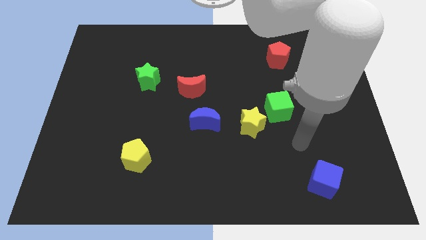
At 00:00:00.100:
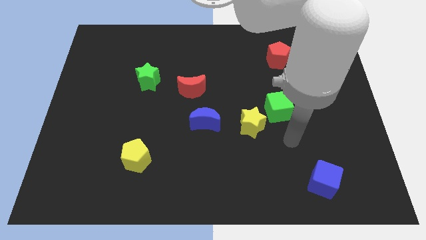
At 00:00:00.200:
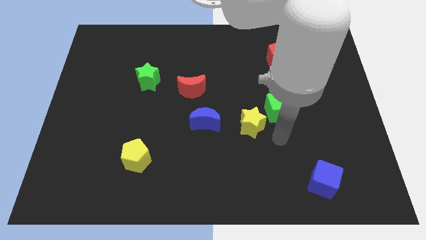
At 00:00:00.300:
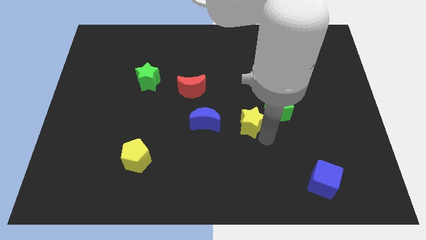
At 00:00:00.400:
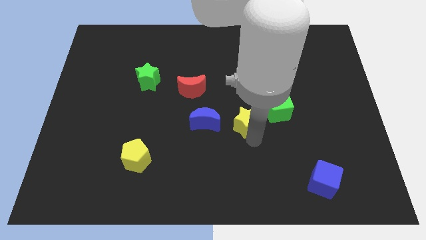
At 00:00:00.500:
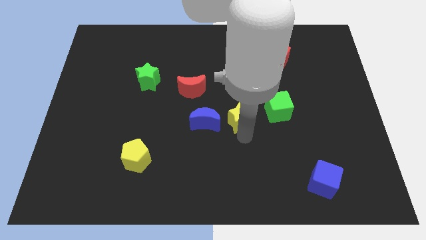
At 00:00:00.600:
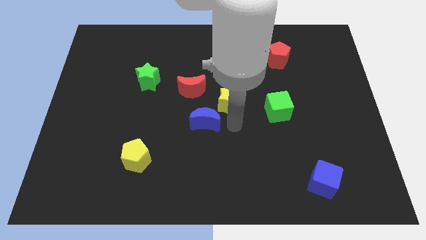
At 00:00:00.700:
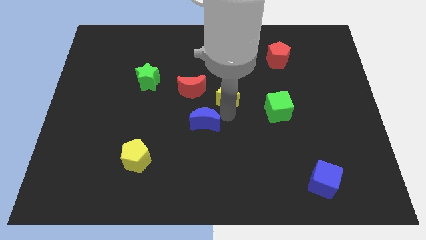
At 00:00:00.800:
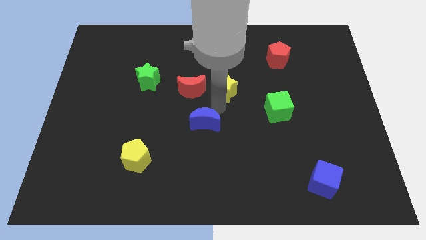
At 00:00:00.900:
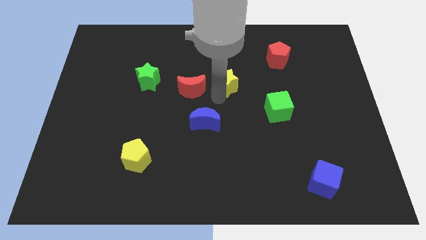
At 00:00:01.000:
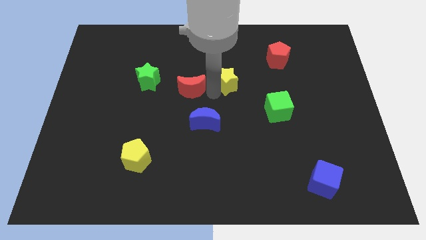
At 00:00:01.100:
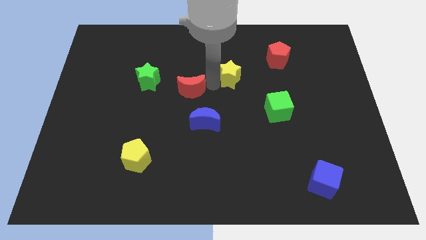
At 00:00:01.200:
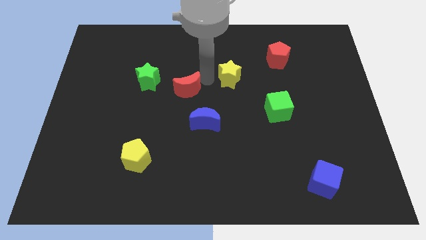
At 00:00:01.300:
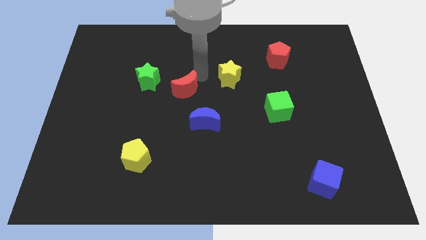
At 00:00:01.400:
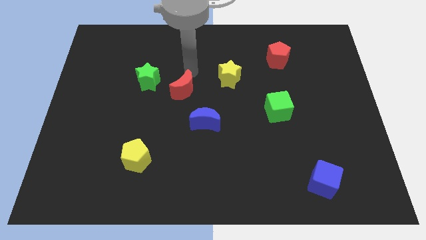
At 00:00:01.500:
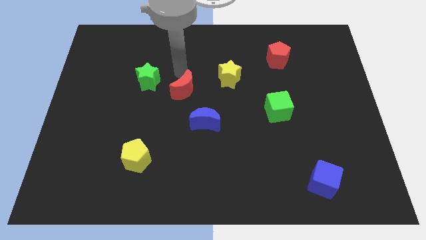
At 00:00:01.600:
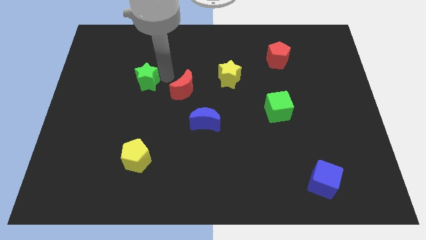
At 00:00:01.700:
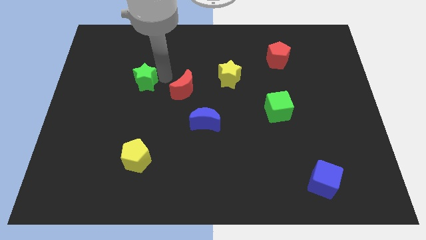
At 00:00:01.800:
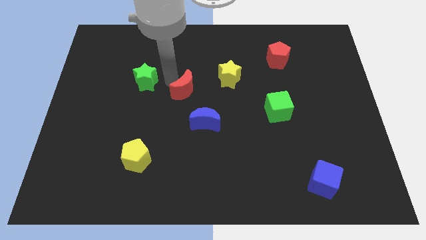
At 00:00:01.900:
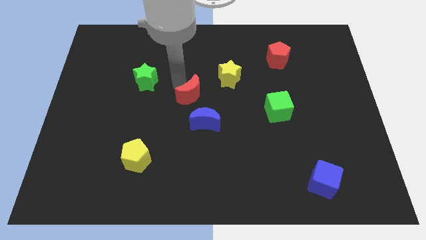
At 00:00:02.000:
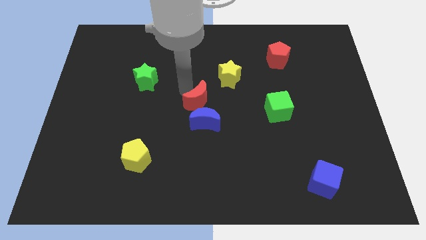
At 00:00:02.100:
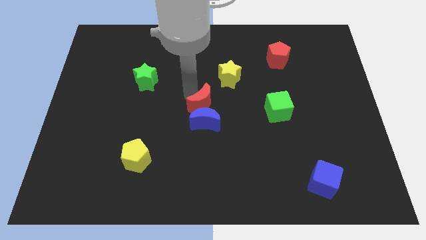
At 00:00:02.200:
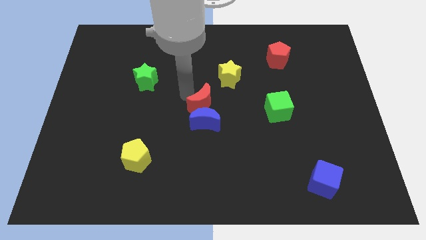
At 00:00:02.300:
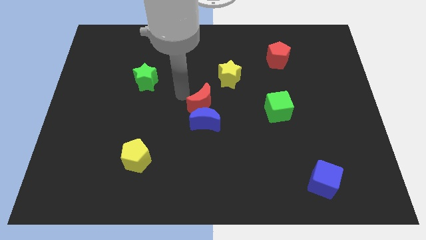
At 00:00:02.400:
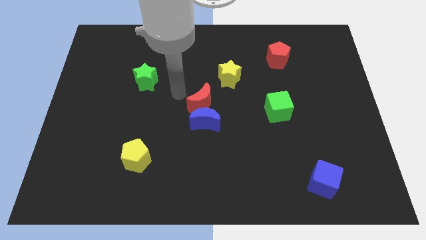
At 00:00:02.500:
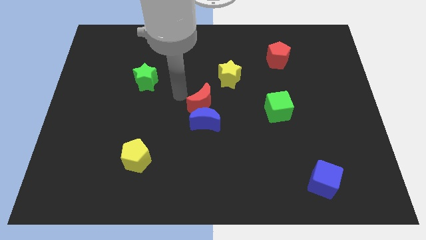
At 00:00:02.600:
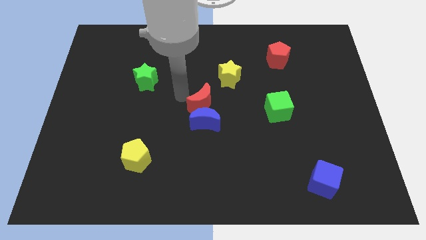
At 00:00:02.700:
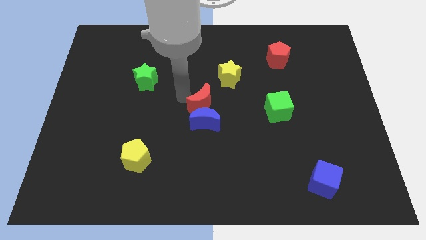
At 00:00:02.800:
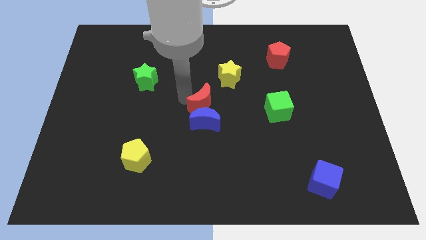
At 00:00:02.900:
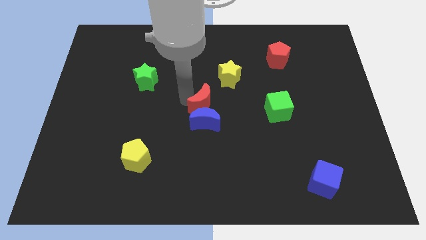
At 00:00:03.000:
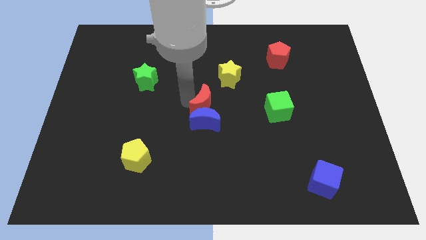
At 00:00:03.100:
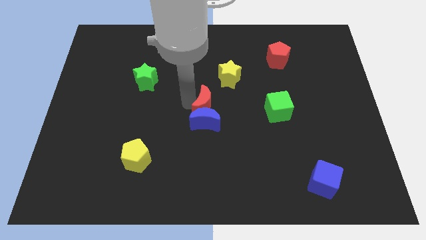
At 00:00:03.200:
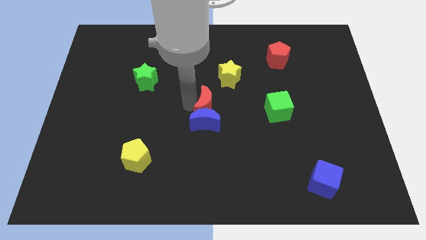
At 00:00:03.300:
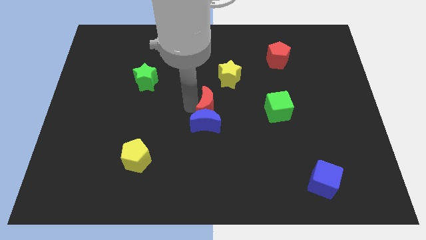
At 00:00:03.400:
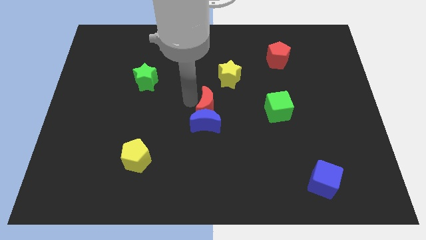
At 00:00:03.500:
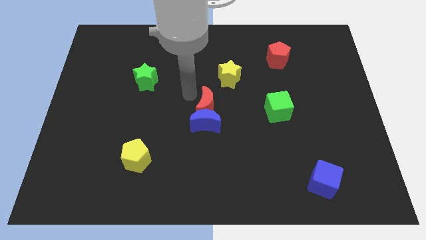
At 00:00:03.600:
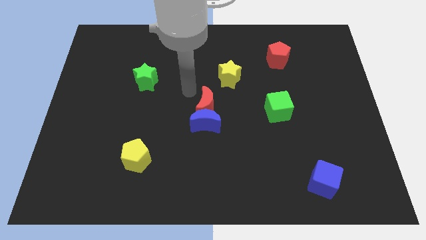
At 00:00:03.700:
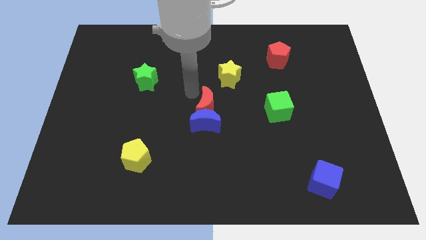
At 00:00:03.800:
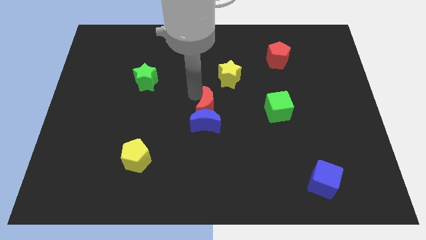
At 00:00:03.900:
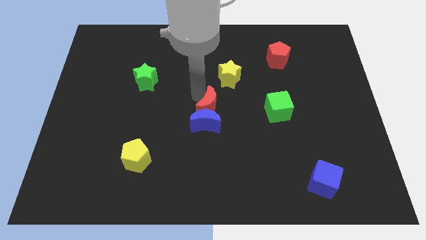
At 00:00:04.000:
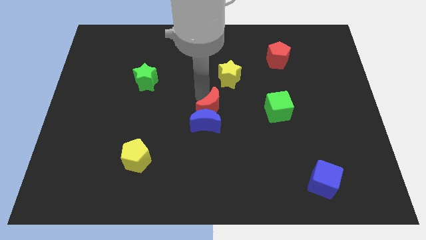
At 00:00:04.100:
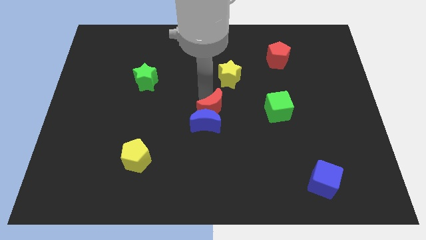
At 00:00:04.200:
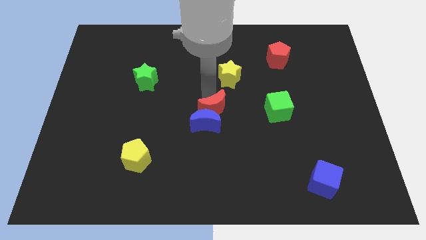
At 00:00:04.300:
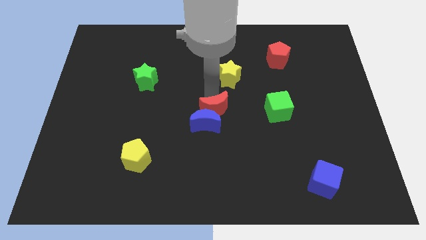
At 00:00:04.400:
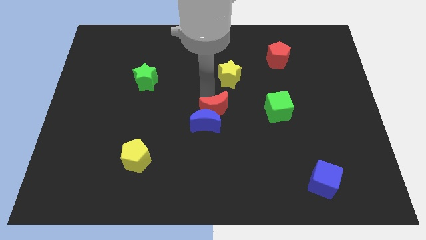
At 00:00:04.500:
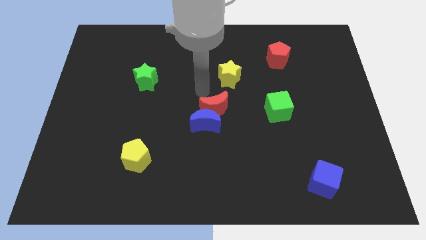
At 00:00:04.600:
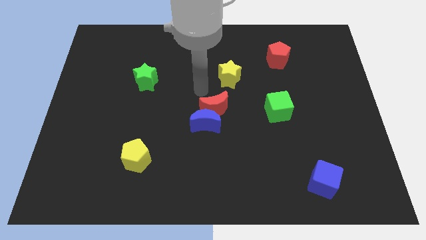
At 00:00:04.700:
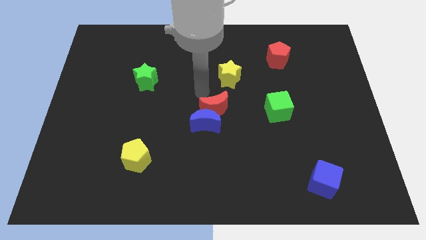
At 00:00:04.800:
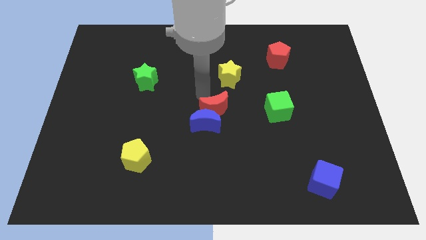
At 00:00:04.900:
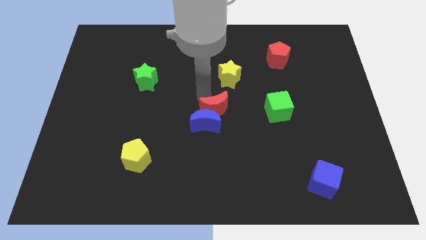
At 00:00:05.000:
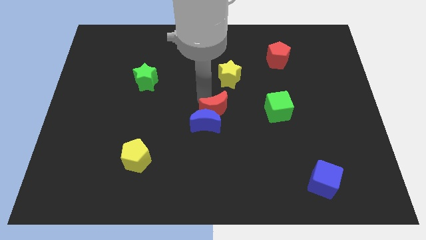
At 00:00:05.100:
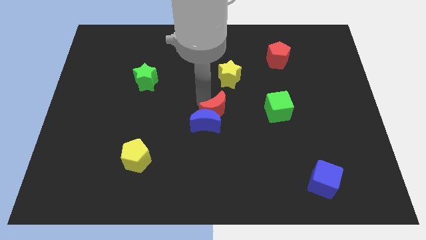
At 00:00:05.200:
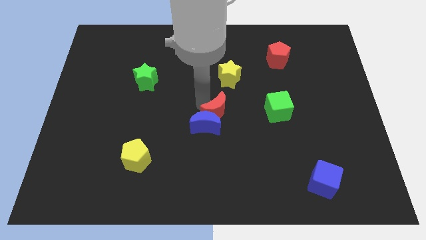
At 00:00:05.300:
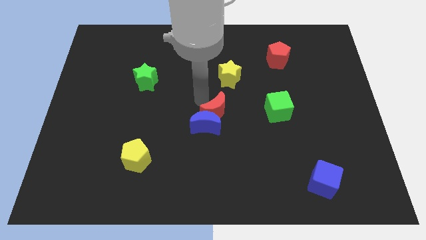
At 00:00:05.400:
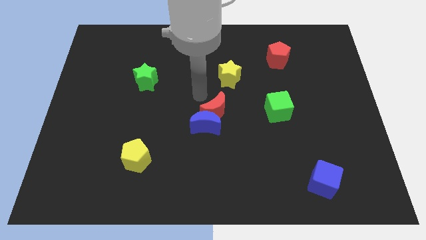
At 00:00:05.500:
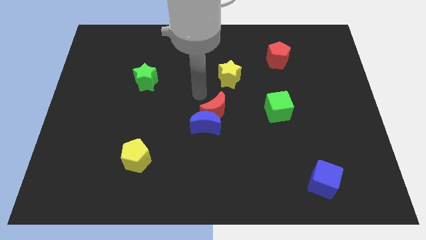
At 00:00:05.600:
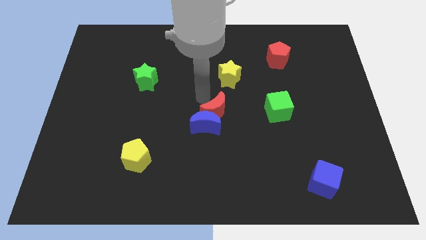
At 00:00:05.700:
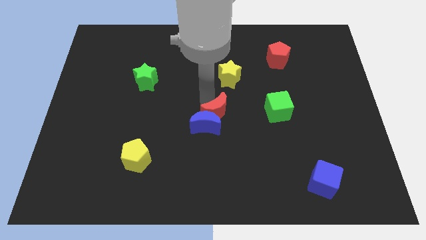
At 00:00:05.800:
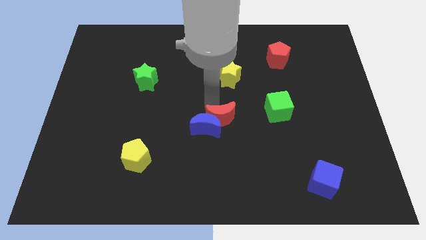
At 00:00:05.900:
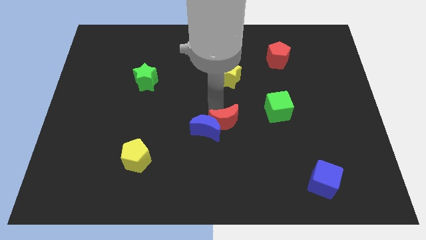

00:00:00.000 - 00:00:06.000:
move the red moon to the bottom right side of the blue moon
